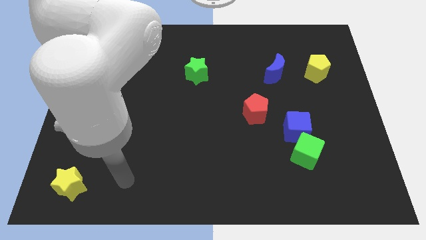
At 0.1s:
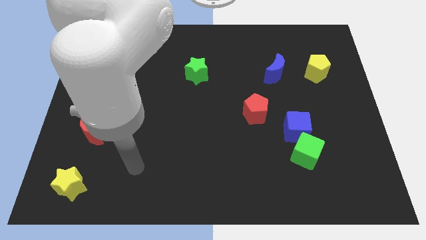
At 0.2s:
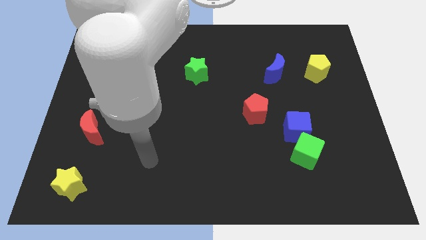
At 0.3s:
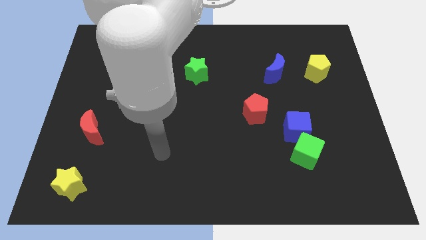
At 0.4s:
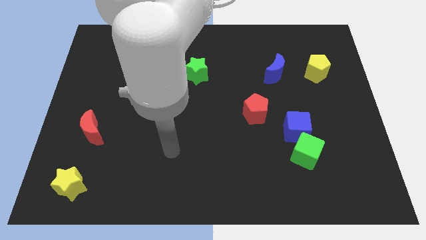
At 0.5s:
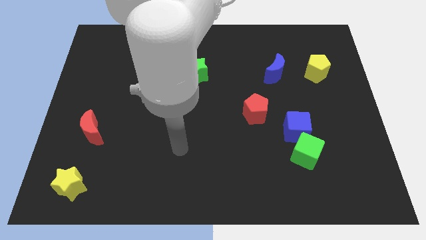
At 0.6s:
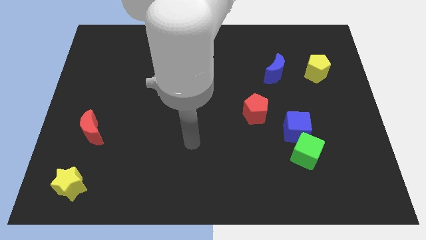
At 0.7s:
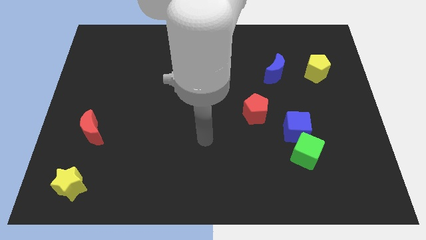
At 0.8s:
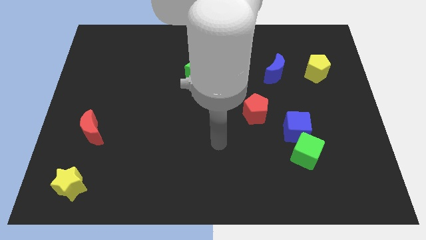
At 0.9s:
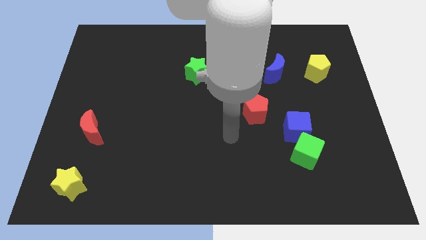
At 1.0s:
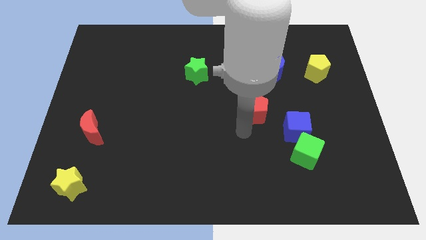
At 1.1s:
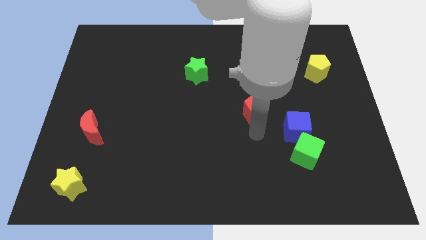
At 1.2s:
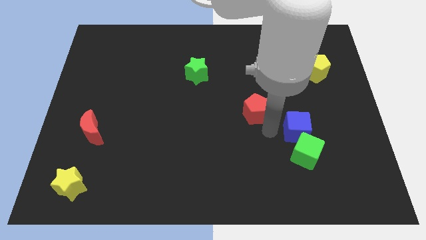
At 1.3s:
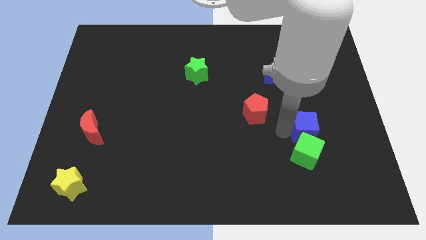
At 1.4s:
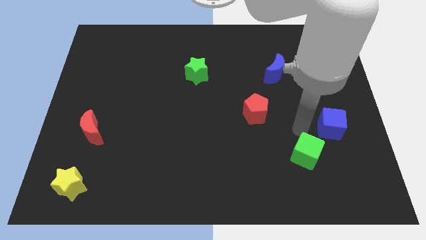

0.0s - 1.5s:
move the green cube away from the blue cube

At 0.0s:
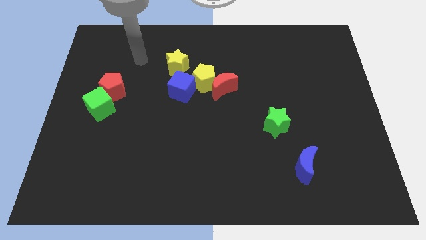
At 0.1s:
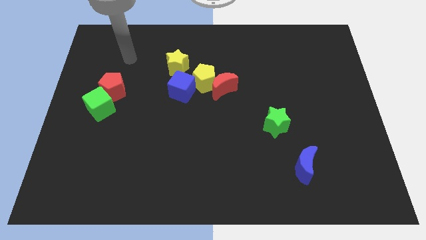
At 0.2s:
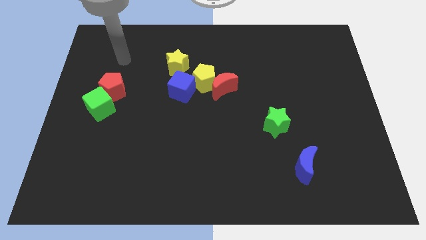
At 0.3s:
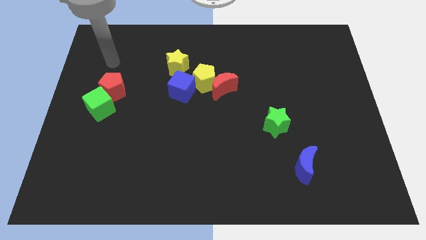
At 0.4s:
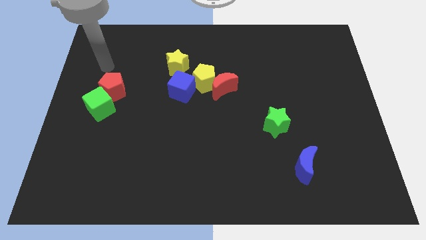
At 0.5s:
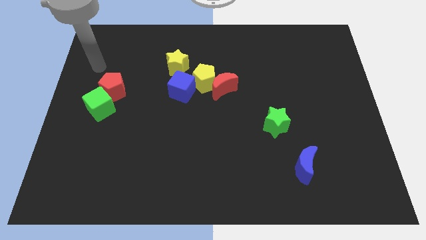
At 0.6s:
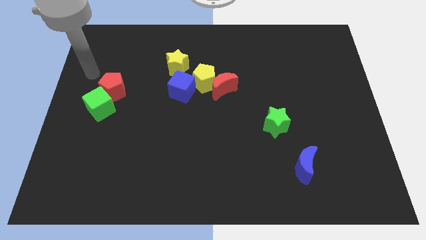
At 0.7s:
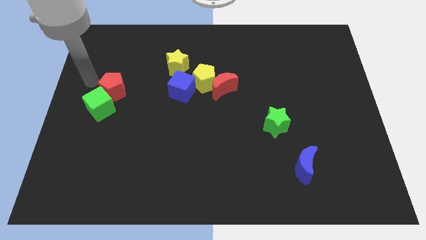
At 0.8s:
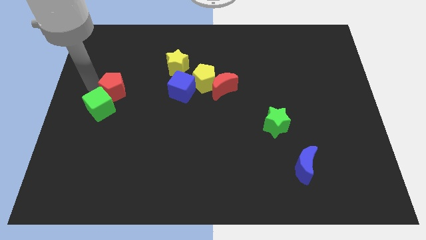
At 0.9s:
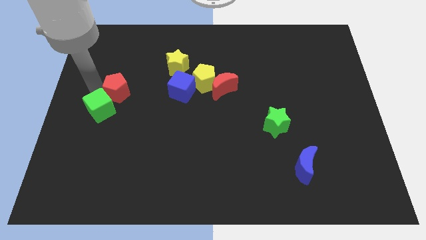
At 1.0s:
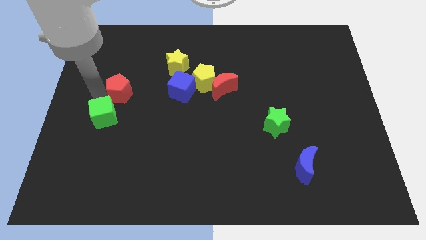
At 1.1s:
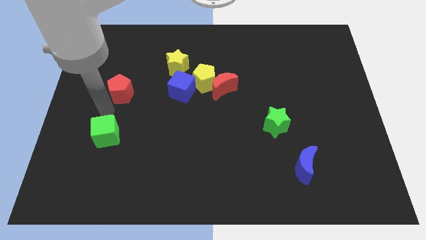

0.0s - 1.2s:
pull the red pentagon apart from the green cube

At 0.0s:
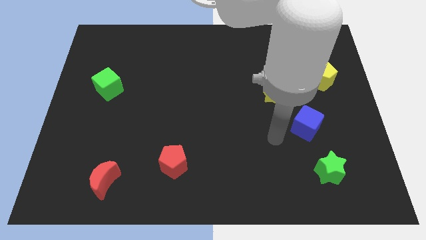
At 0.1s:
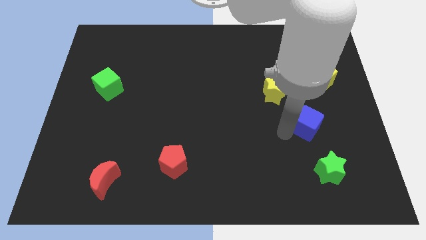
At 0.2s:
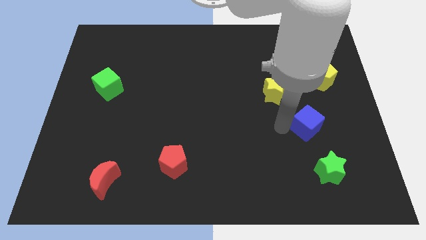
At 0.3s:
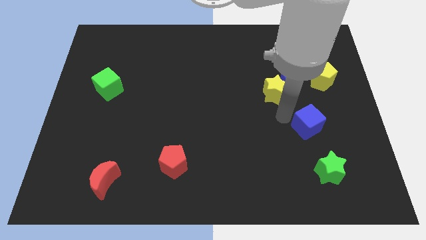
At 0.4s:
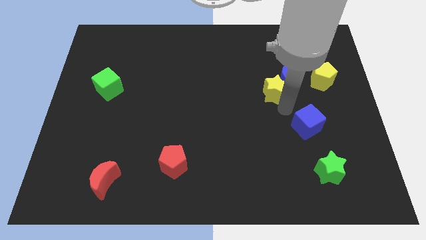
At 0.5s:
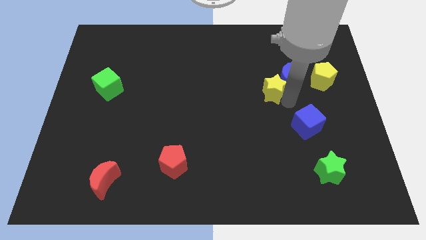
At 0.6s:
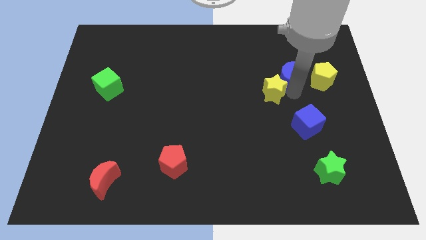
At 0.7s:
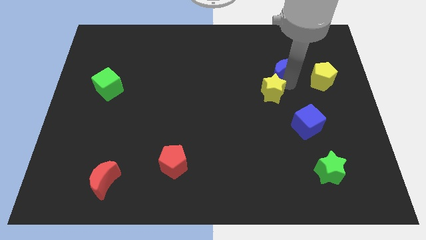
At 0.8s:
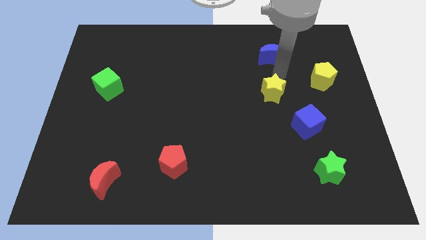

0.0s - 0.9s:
pull the yellow star apart from the blue moon

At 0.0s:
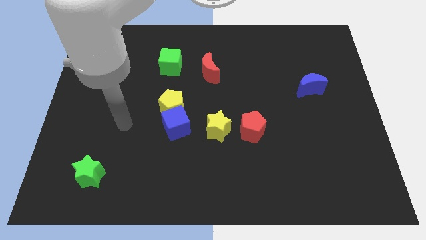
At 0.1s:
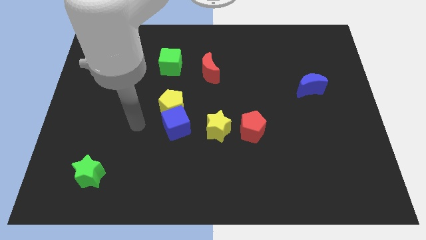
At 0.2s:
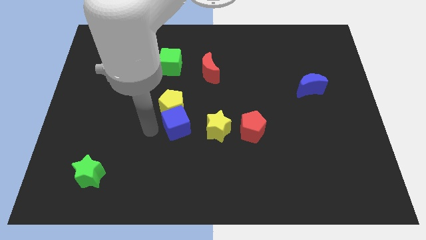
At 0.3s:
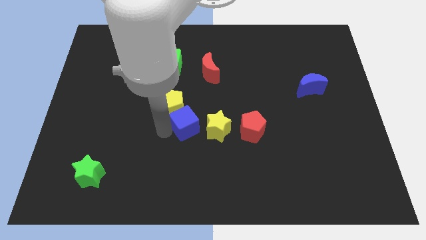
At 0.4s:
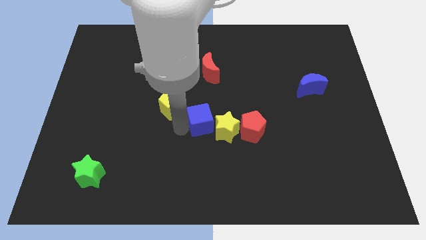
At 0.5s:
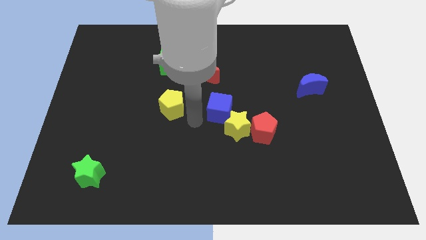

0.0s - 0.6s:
separate the yellow pentagon from the blue cube

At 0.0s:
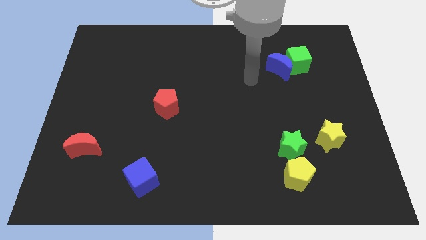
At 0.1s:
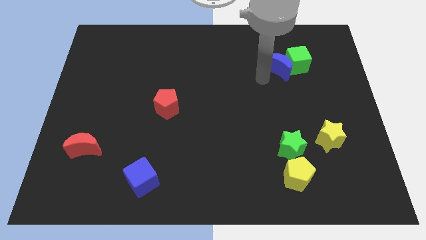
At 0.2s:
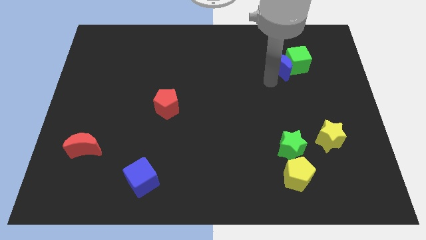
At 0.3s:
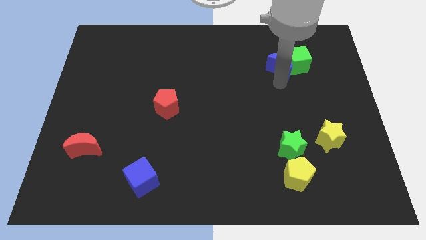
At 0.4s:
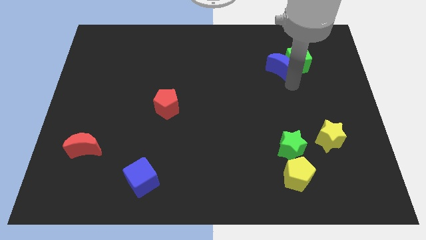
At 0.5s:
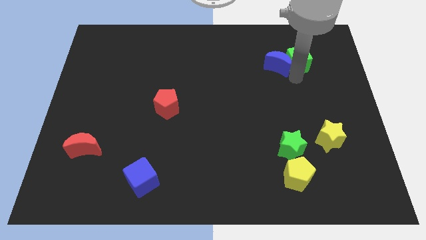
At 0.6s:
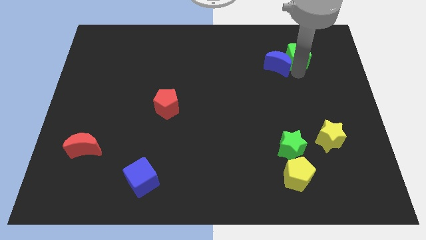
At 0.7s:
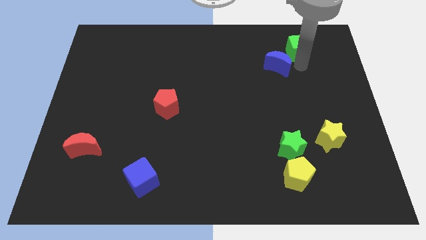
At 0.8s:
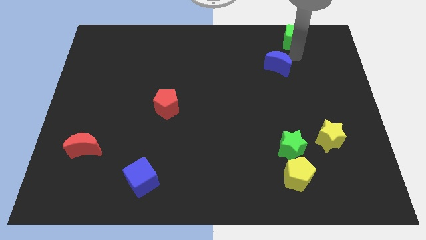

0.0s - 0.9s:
separate the blue moon from the green cube

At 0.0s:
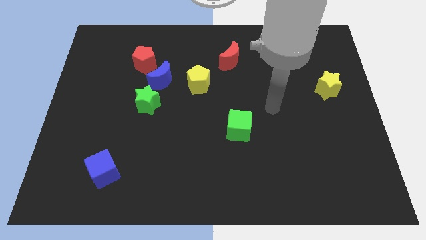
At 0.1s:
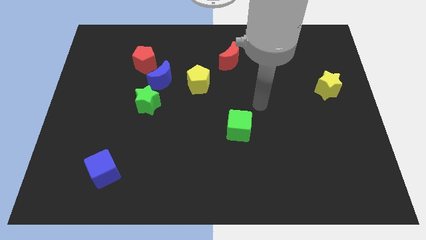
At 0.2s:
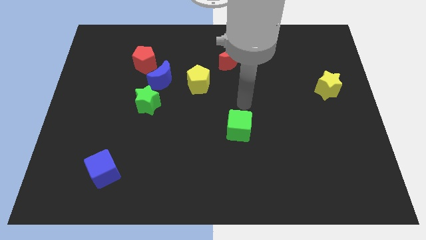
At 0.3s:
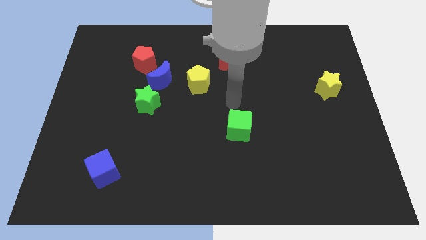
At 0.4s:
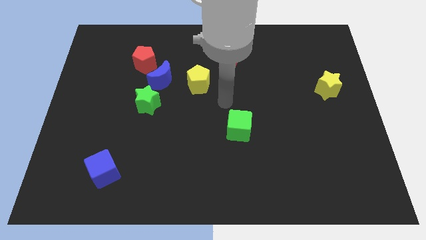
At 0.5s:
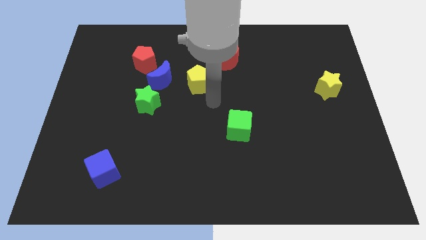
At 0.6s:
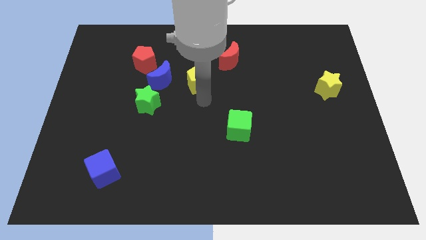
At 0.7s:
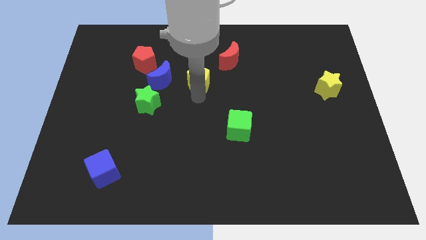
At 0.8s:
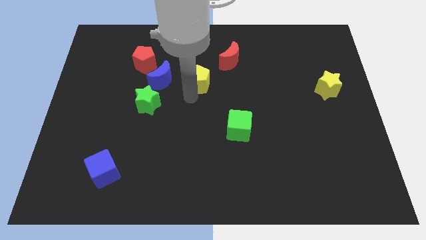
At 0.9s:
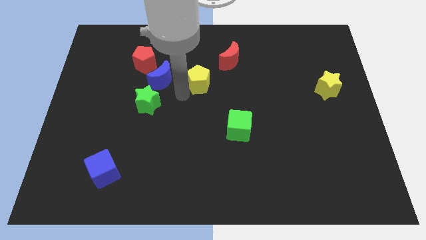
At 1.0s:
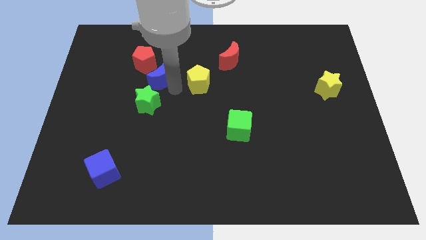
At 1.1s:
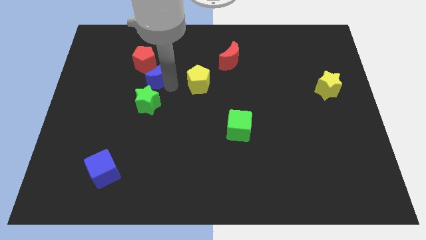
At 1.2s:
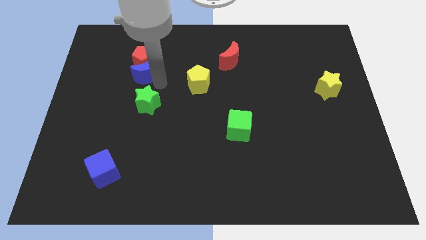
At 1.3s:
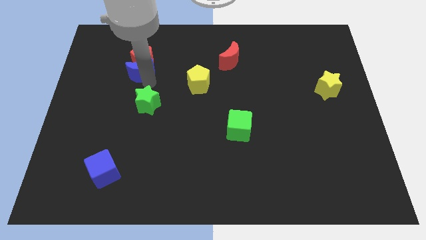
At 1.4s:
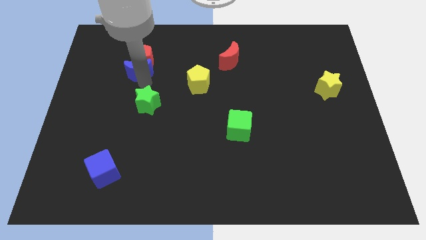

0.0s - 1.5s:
separate the green star from the blue moon

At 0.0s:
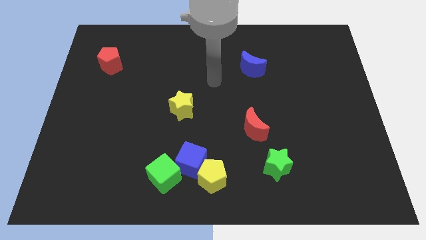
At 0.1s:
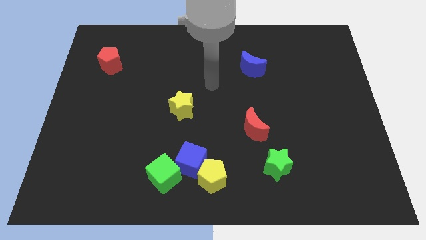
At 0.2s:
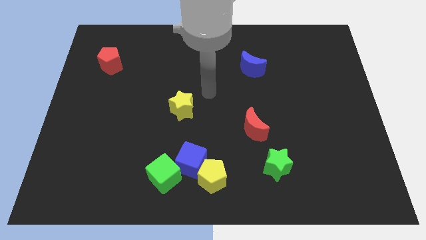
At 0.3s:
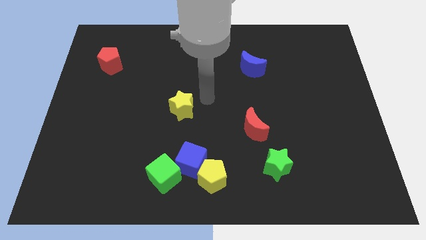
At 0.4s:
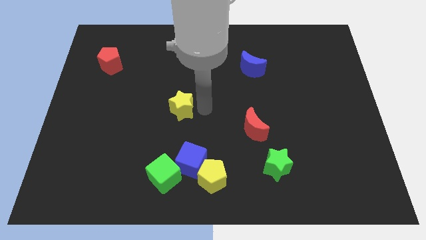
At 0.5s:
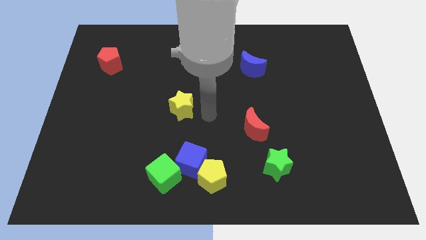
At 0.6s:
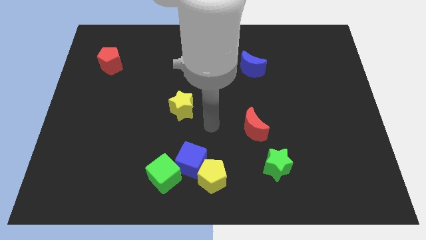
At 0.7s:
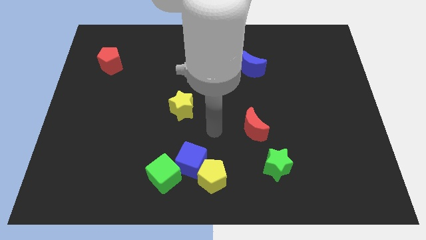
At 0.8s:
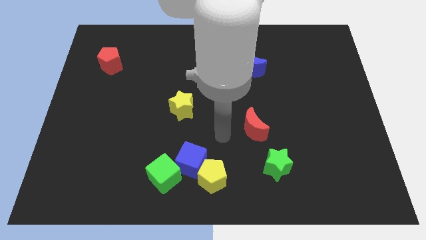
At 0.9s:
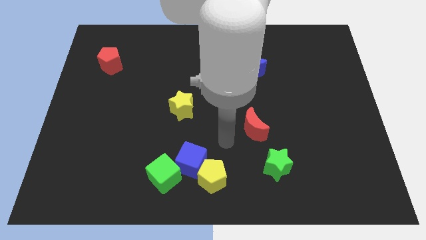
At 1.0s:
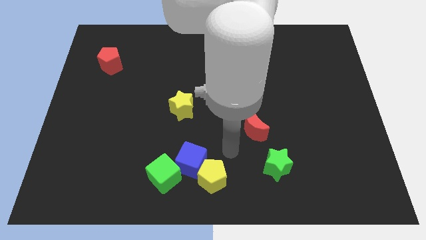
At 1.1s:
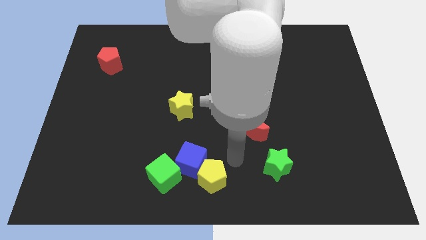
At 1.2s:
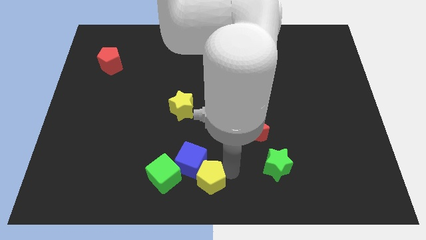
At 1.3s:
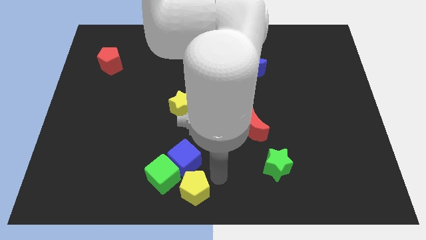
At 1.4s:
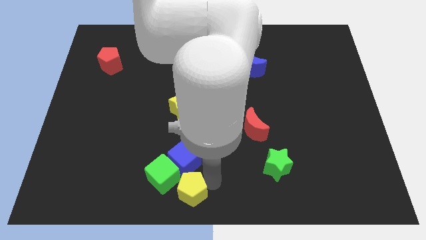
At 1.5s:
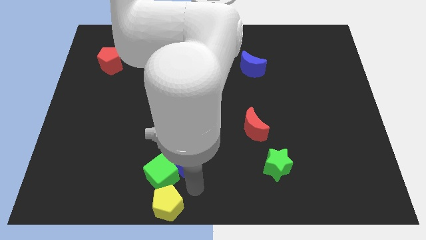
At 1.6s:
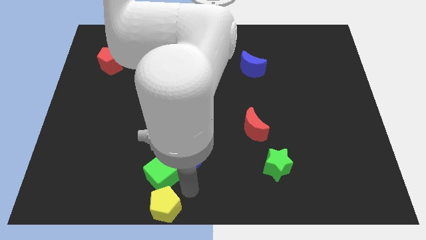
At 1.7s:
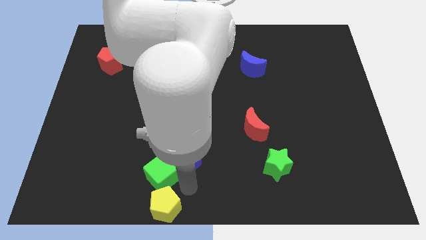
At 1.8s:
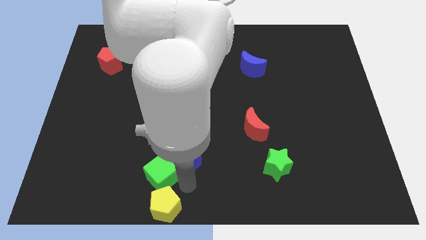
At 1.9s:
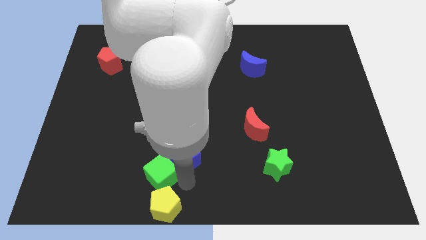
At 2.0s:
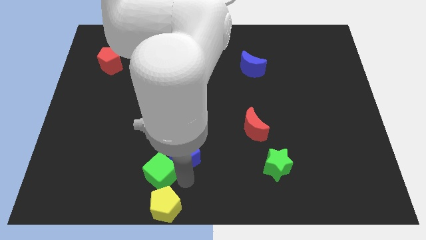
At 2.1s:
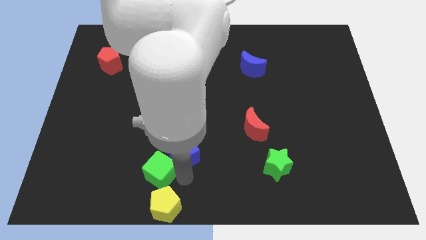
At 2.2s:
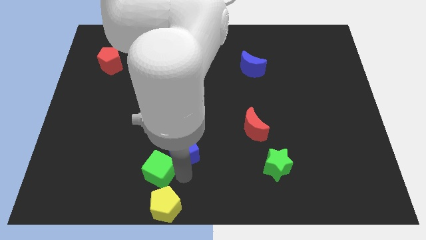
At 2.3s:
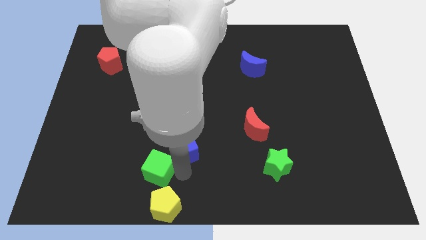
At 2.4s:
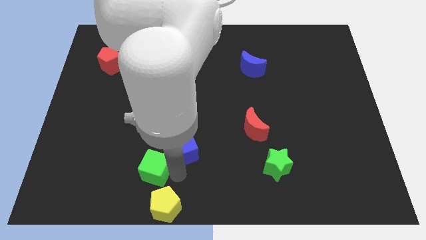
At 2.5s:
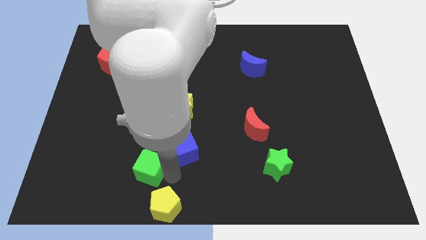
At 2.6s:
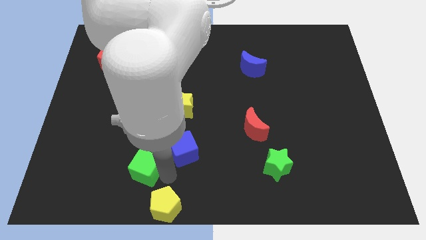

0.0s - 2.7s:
pull the blue cube apart from the yellow pentagon and green cube
